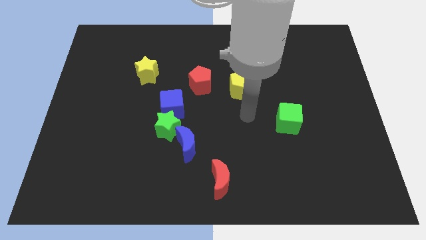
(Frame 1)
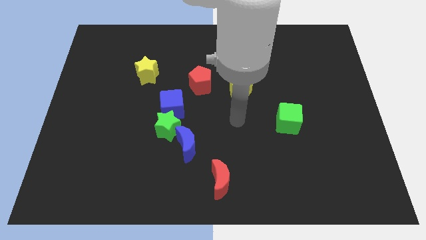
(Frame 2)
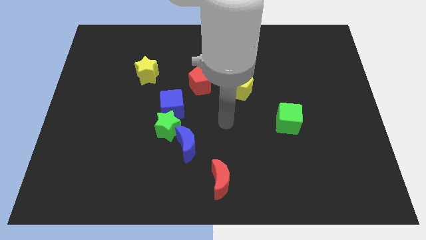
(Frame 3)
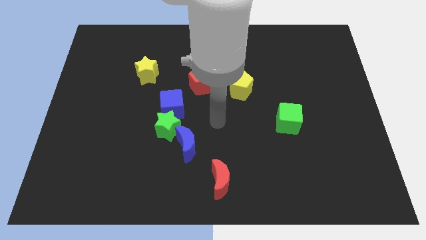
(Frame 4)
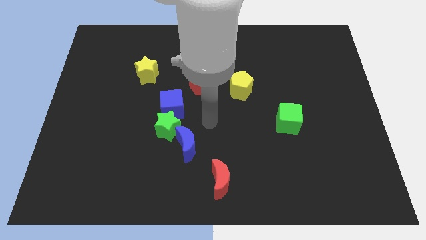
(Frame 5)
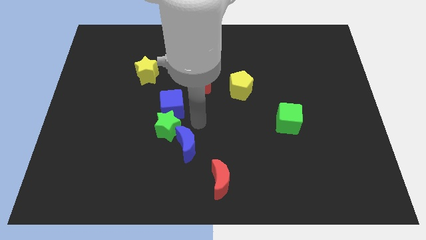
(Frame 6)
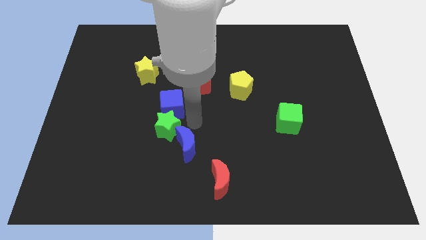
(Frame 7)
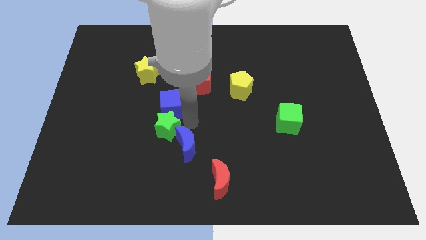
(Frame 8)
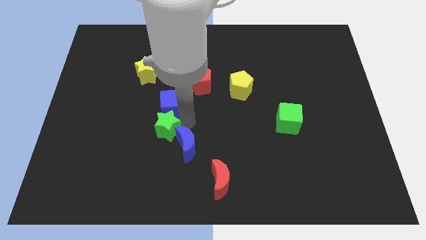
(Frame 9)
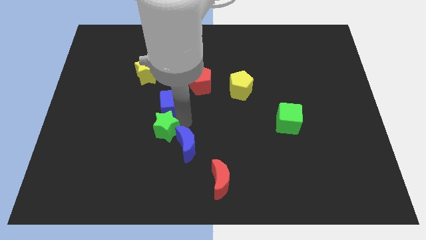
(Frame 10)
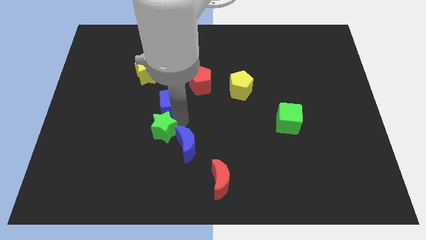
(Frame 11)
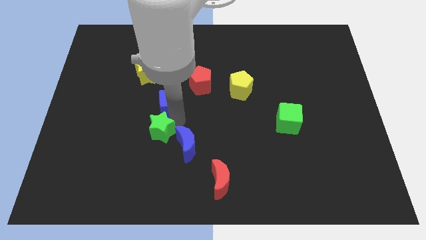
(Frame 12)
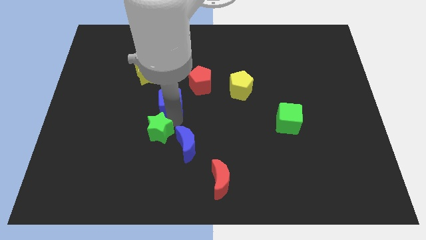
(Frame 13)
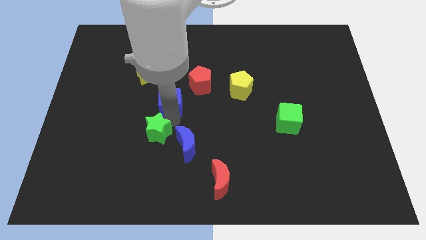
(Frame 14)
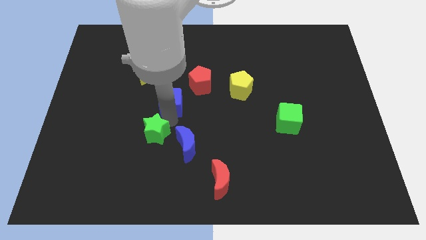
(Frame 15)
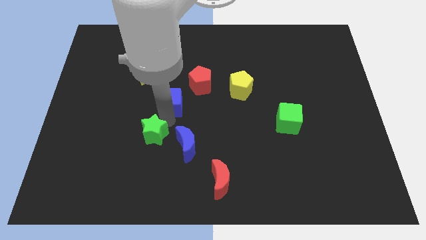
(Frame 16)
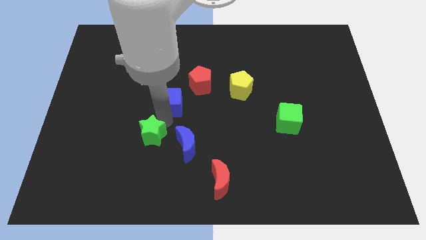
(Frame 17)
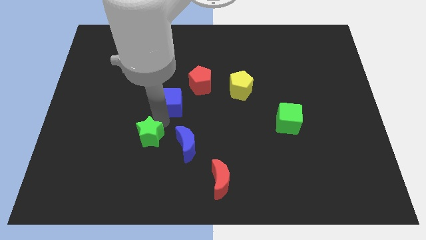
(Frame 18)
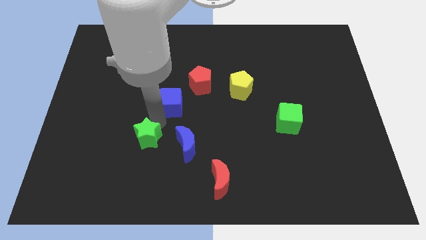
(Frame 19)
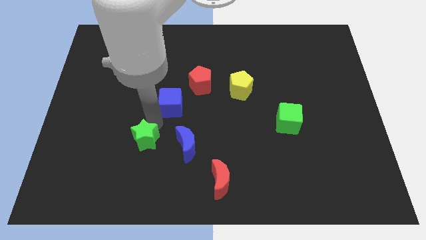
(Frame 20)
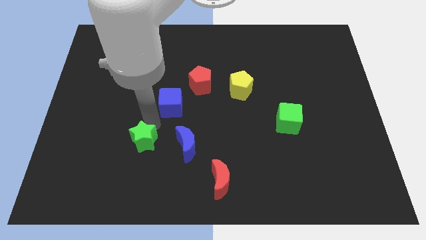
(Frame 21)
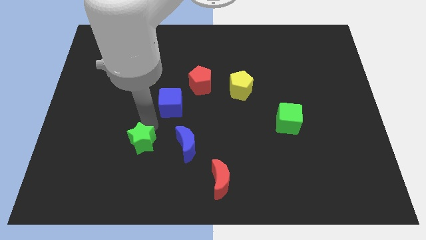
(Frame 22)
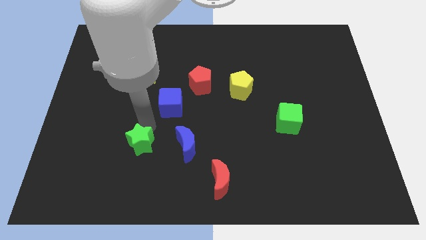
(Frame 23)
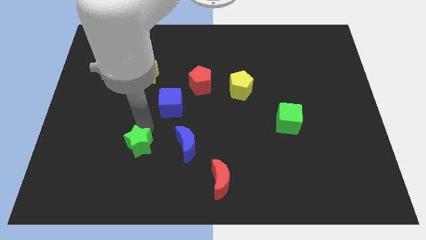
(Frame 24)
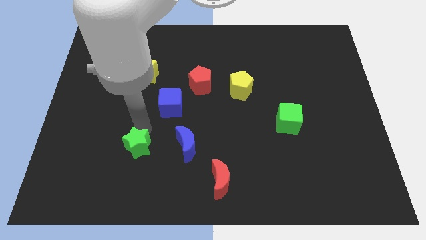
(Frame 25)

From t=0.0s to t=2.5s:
separate the green star from the blue cube and blue moon

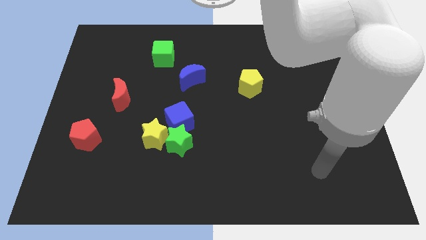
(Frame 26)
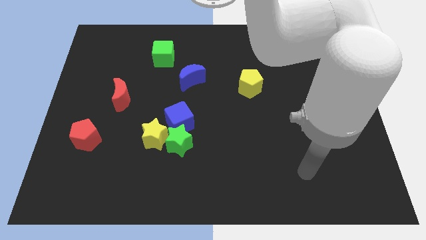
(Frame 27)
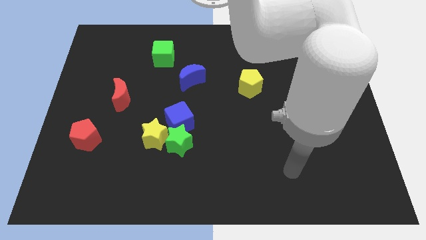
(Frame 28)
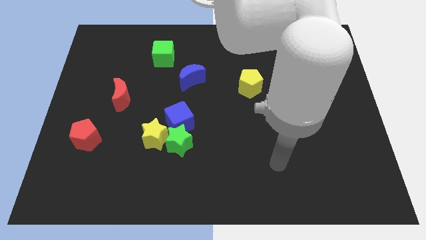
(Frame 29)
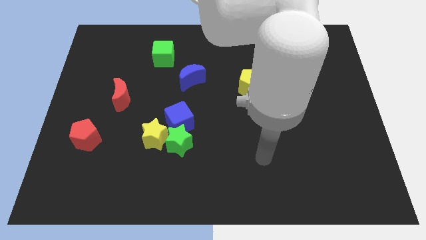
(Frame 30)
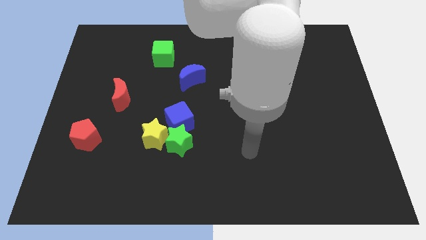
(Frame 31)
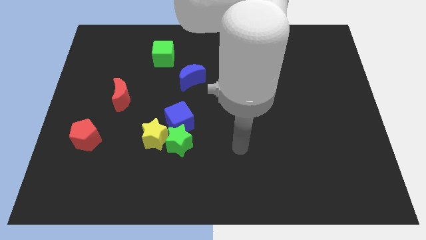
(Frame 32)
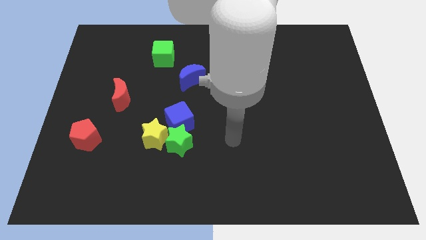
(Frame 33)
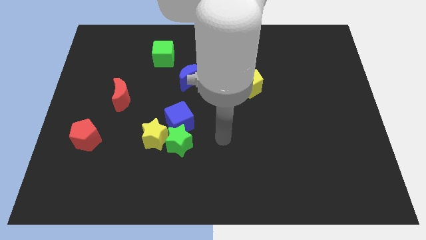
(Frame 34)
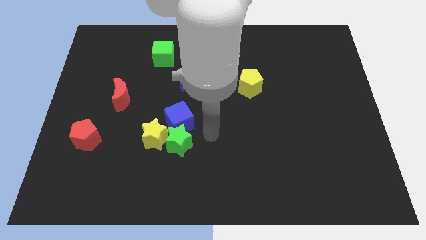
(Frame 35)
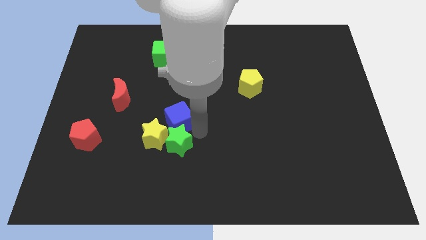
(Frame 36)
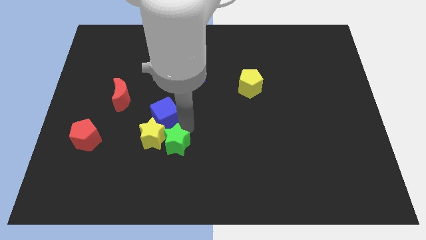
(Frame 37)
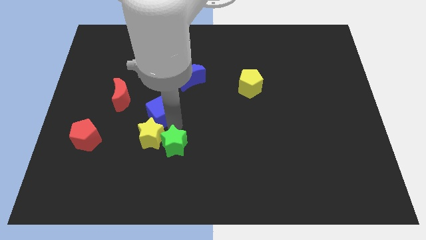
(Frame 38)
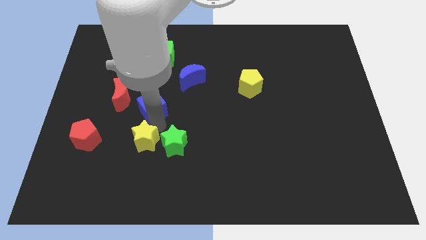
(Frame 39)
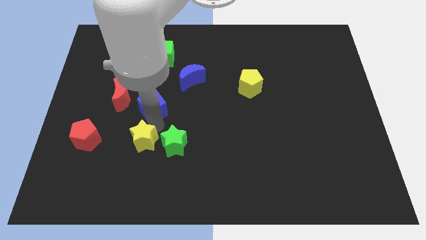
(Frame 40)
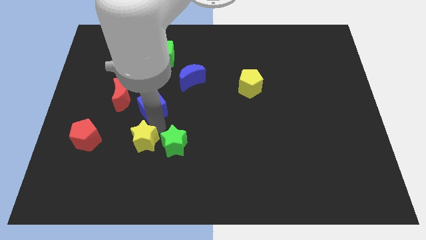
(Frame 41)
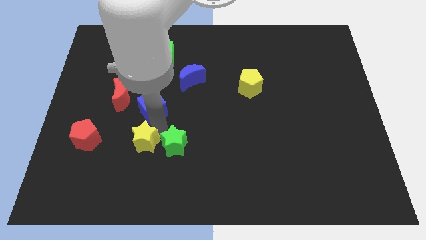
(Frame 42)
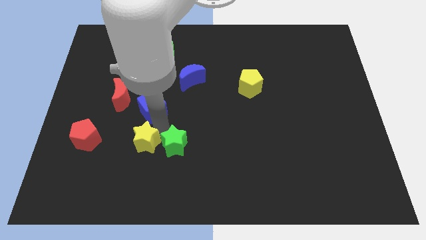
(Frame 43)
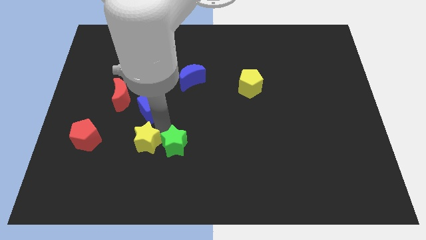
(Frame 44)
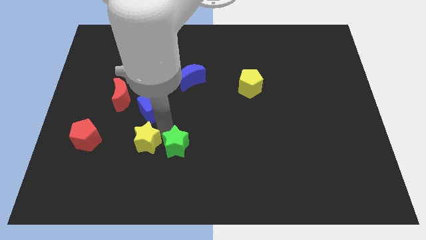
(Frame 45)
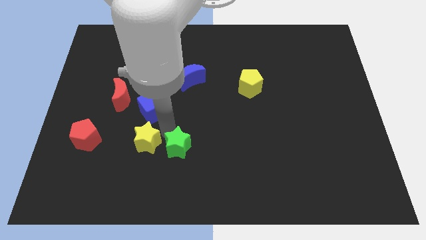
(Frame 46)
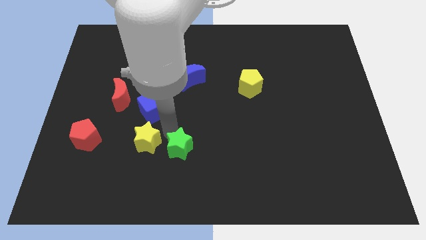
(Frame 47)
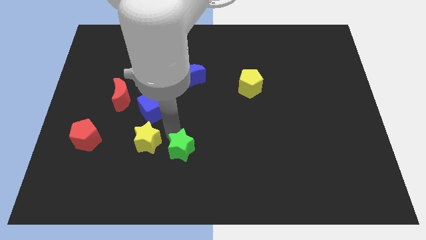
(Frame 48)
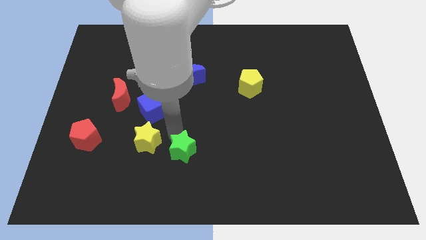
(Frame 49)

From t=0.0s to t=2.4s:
pull the green star apart from the yellow star and blue cube

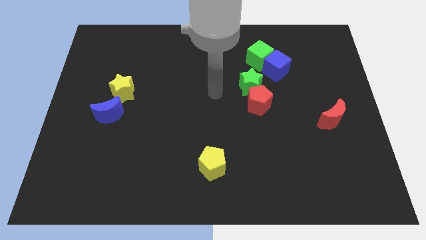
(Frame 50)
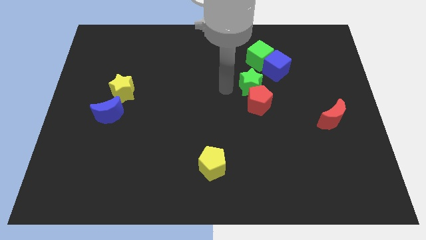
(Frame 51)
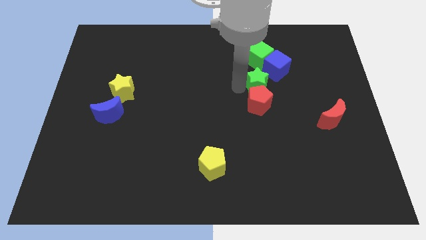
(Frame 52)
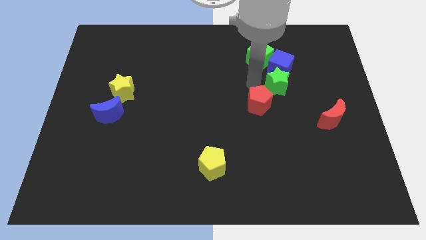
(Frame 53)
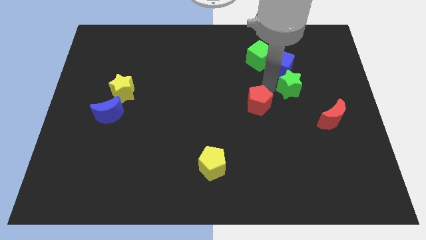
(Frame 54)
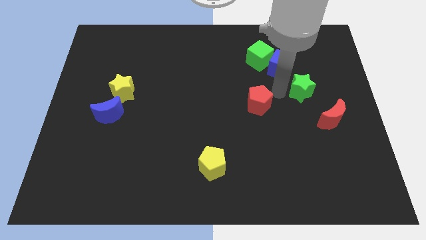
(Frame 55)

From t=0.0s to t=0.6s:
pull the red pentagon apart from the green star

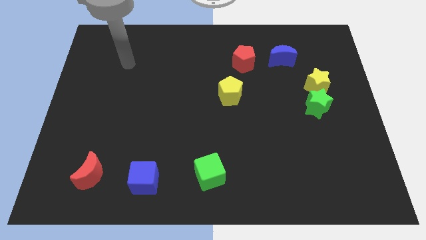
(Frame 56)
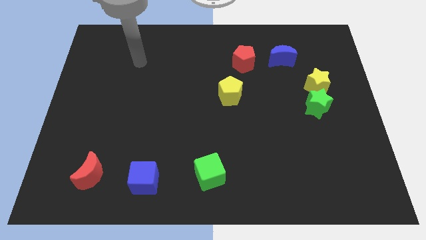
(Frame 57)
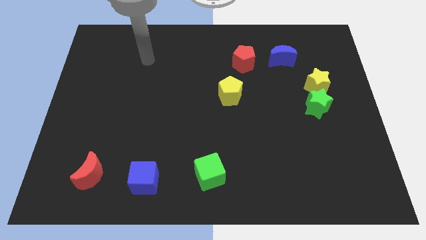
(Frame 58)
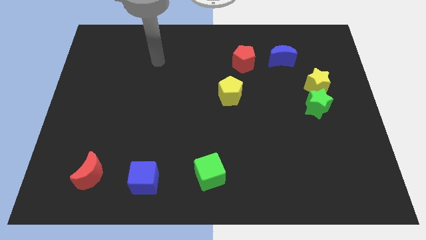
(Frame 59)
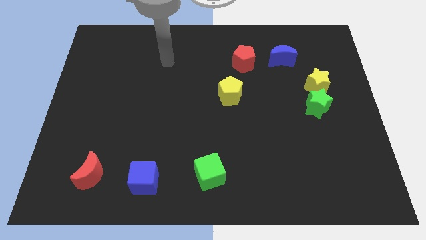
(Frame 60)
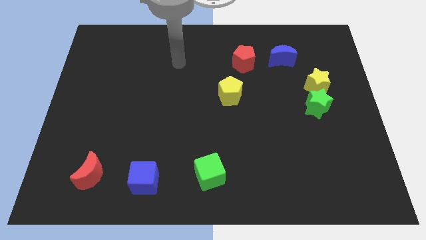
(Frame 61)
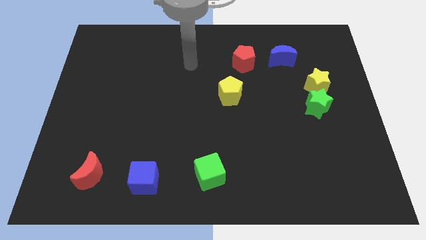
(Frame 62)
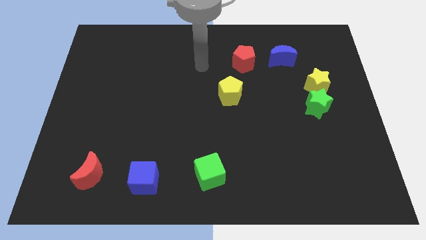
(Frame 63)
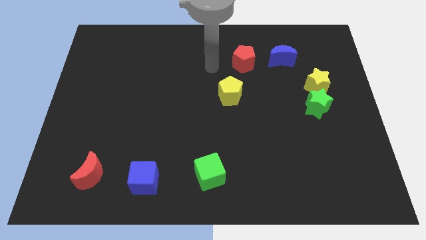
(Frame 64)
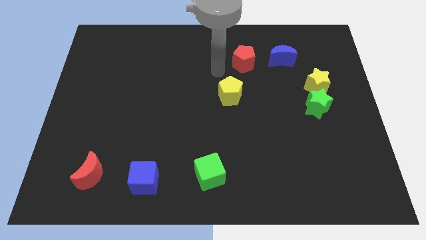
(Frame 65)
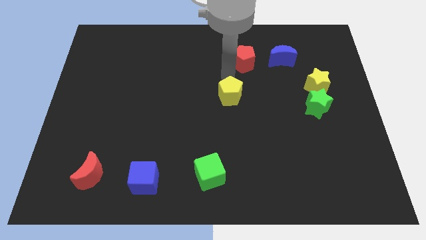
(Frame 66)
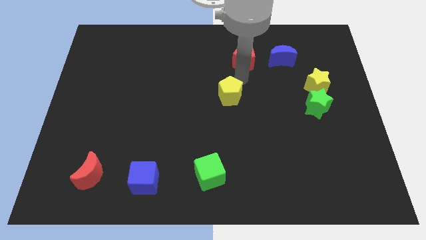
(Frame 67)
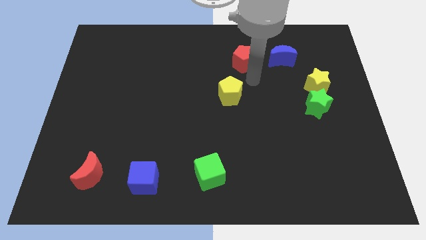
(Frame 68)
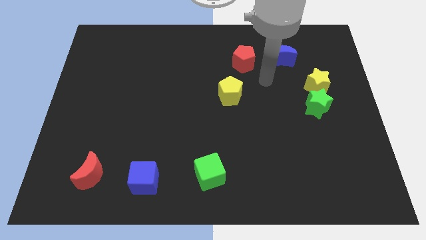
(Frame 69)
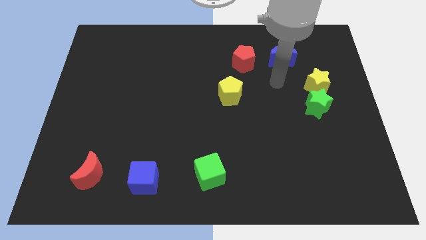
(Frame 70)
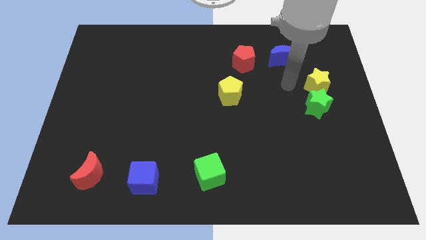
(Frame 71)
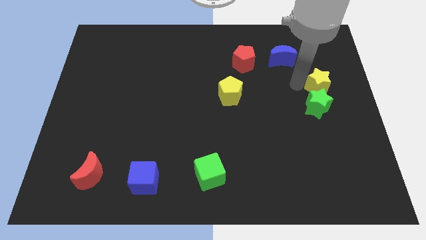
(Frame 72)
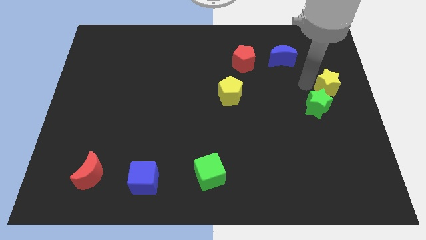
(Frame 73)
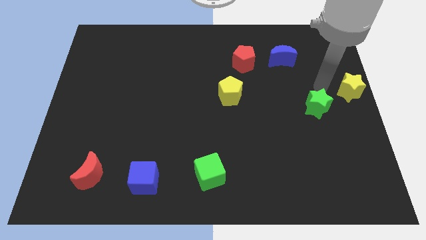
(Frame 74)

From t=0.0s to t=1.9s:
separate the green star from the yellow star

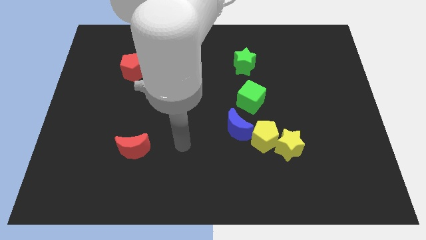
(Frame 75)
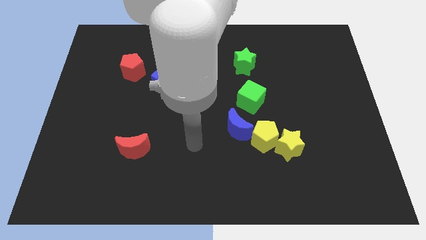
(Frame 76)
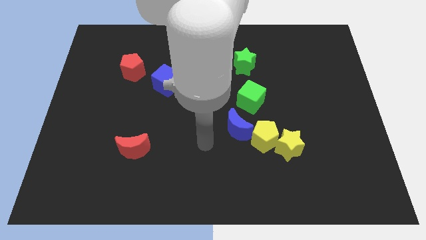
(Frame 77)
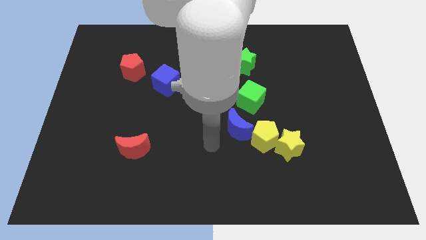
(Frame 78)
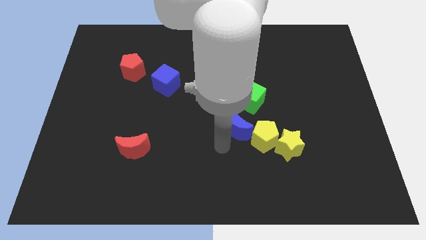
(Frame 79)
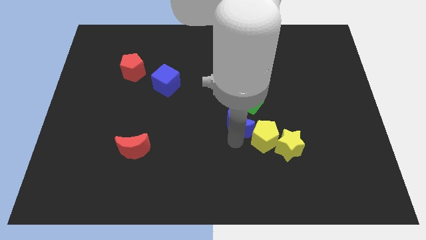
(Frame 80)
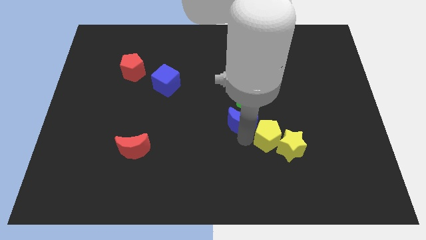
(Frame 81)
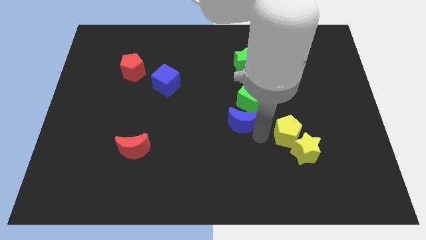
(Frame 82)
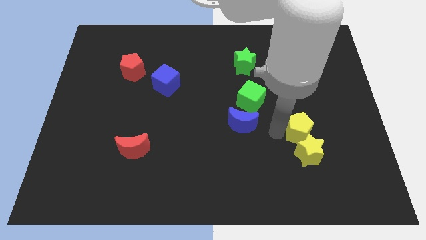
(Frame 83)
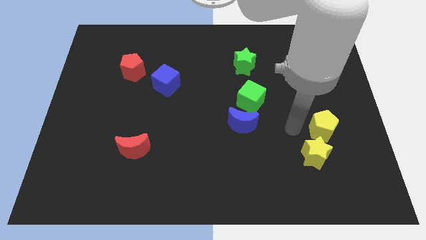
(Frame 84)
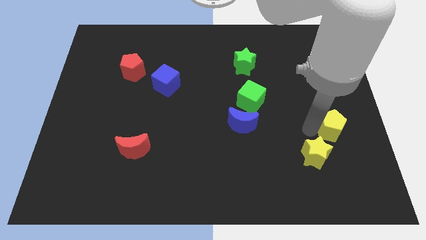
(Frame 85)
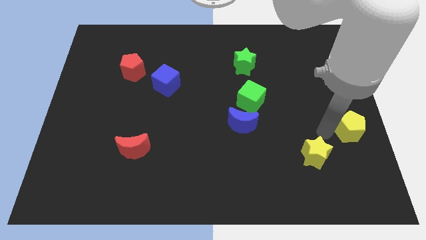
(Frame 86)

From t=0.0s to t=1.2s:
move the yellow star away from the yellow pentagon

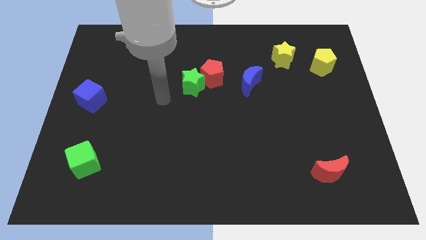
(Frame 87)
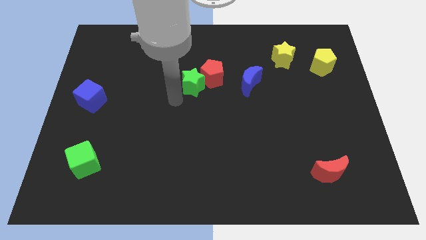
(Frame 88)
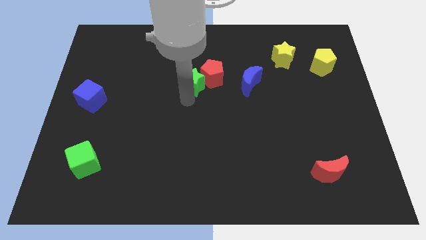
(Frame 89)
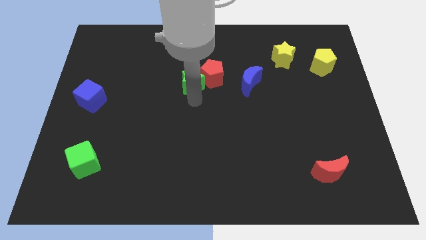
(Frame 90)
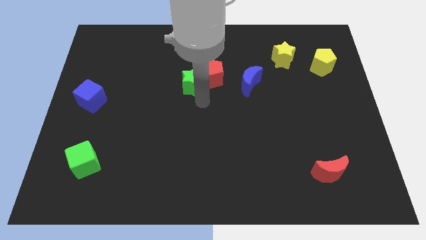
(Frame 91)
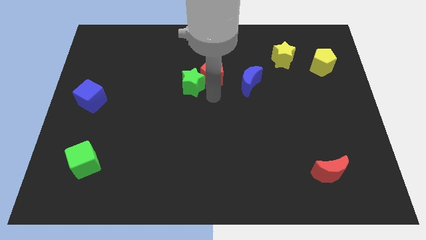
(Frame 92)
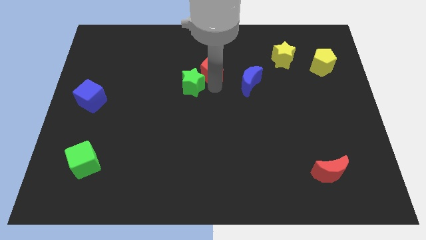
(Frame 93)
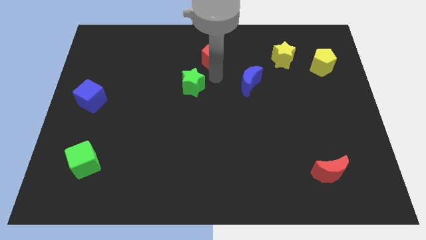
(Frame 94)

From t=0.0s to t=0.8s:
separate the green star from the red pentagon

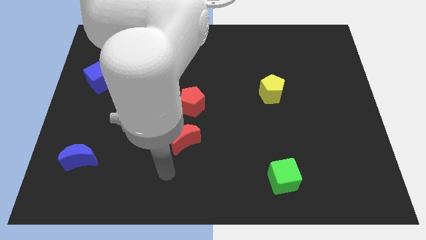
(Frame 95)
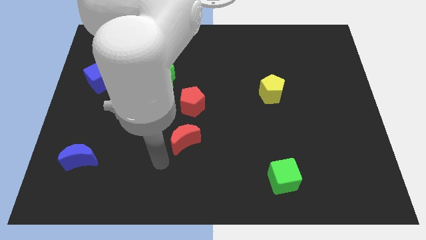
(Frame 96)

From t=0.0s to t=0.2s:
move the red moon away from the red pentagon
